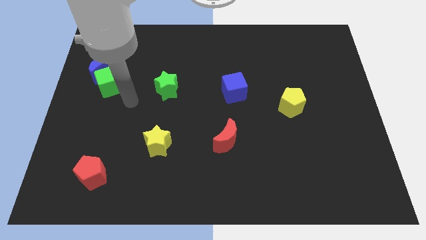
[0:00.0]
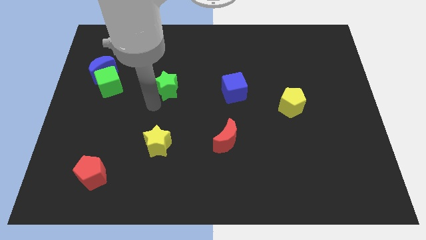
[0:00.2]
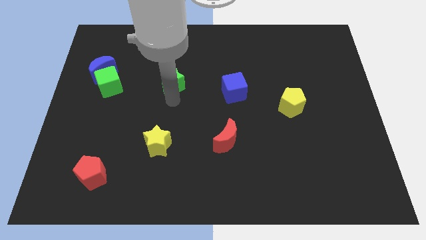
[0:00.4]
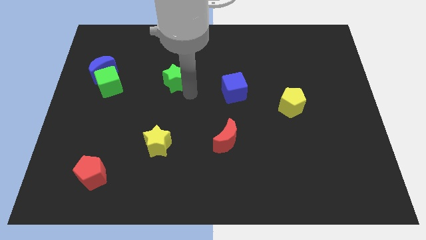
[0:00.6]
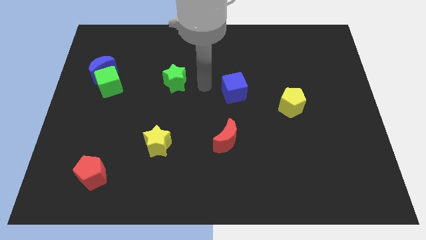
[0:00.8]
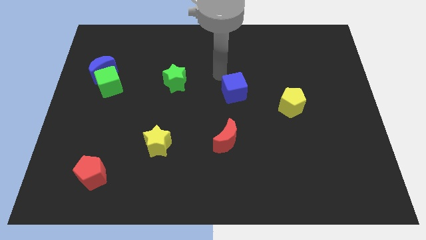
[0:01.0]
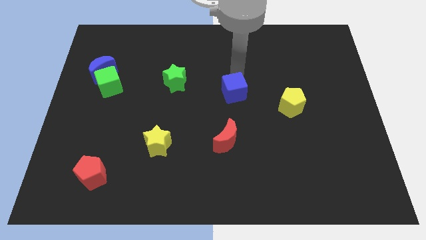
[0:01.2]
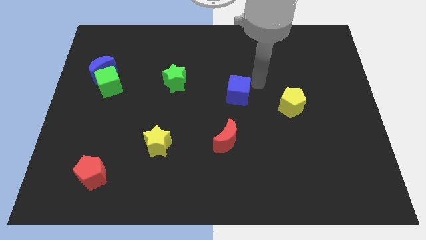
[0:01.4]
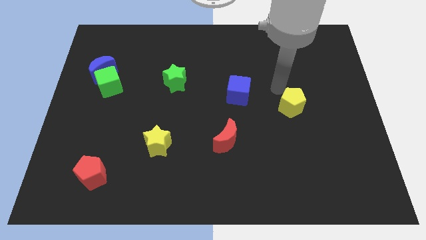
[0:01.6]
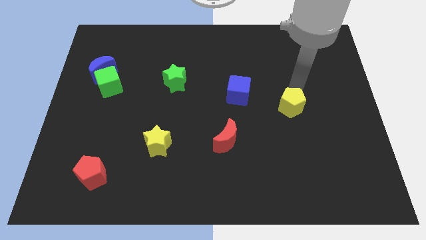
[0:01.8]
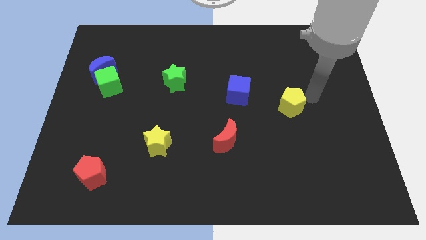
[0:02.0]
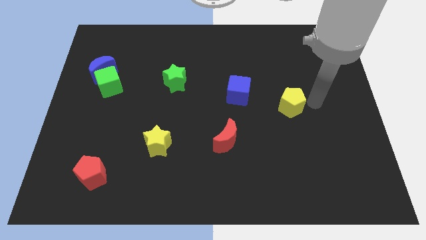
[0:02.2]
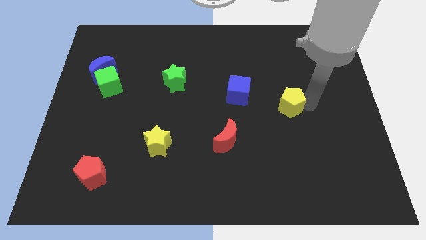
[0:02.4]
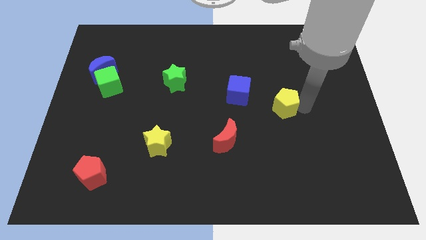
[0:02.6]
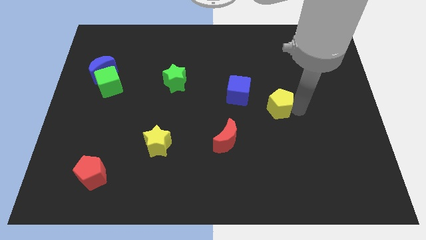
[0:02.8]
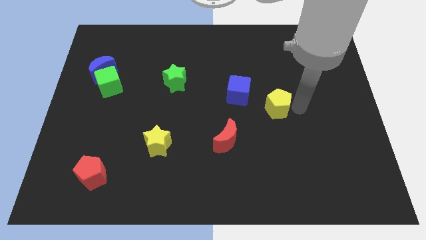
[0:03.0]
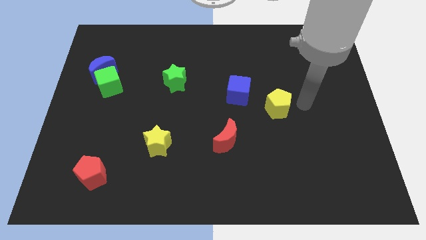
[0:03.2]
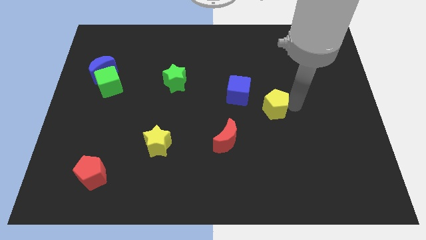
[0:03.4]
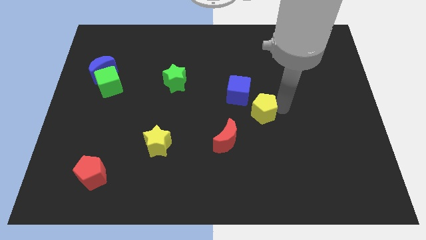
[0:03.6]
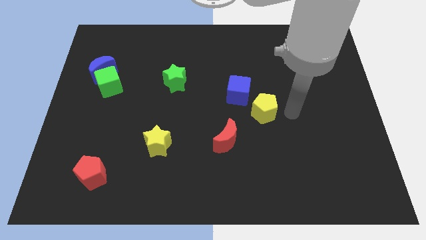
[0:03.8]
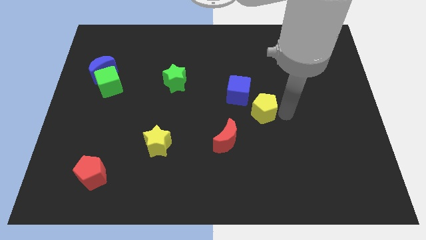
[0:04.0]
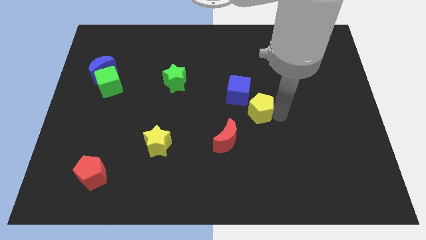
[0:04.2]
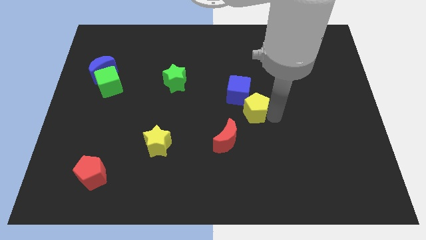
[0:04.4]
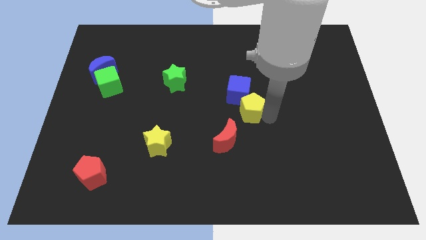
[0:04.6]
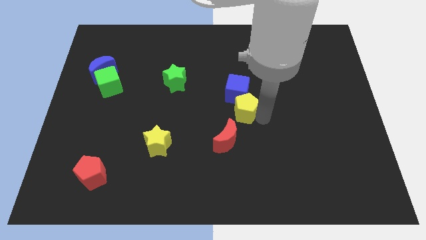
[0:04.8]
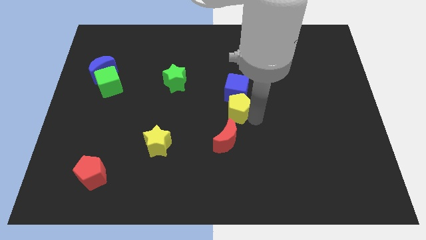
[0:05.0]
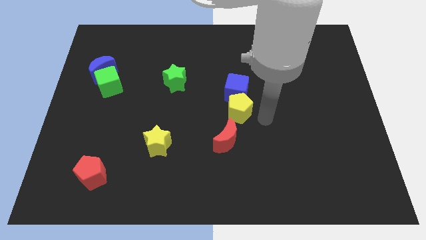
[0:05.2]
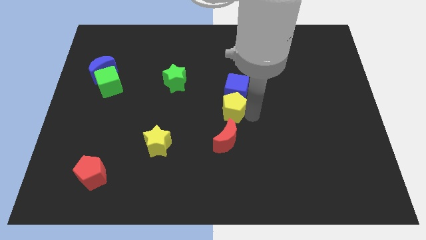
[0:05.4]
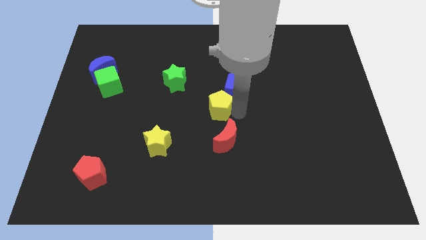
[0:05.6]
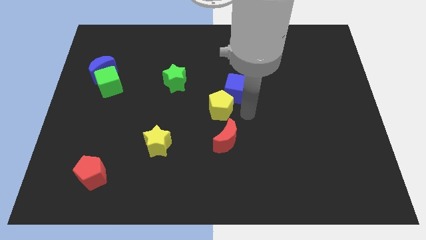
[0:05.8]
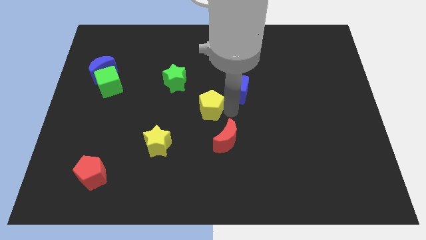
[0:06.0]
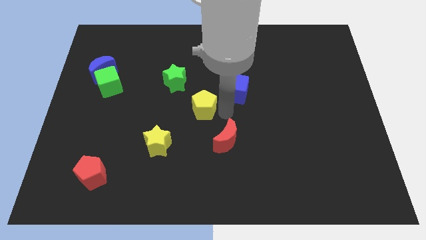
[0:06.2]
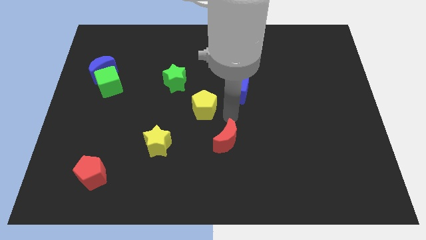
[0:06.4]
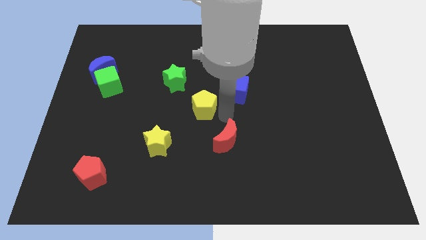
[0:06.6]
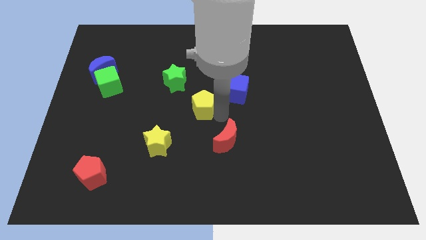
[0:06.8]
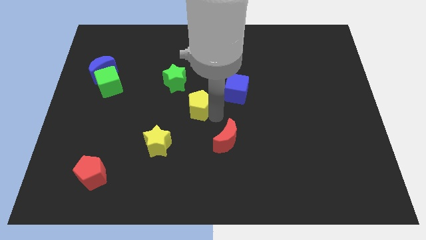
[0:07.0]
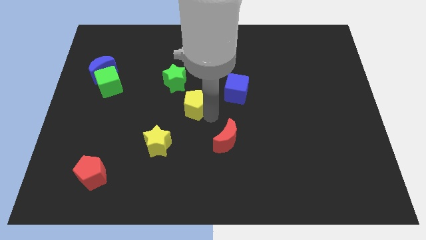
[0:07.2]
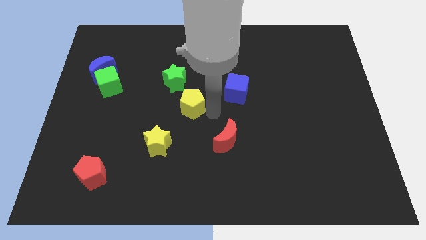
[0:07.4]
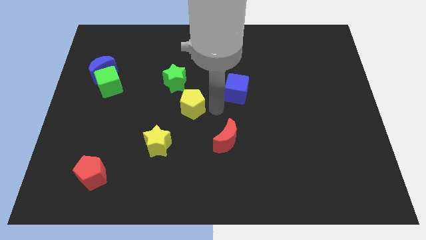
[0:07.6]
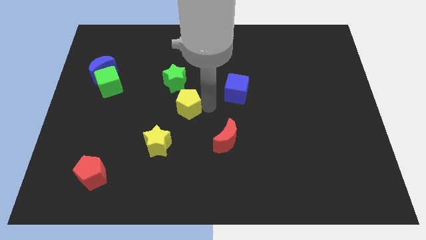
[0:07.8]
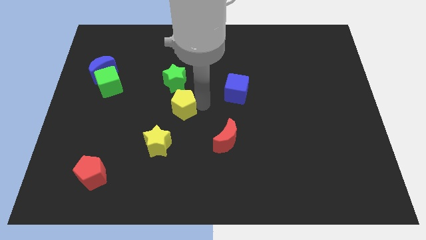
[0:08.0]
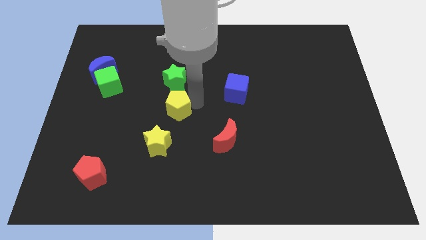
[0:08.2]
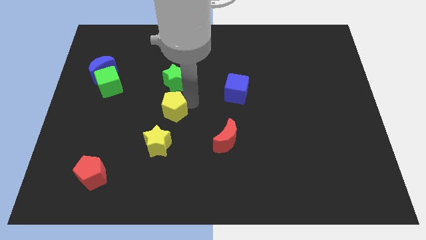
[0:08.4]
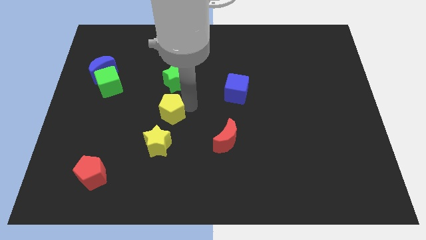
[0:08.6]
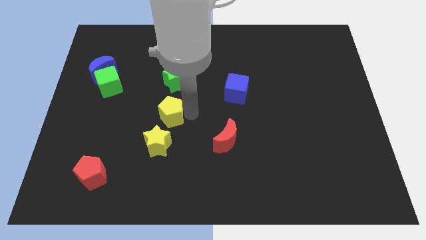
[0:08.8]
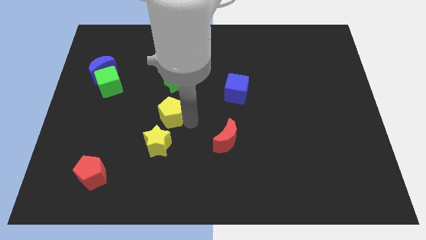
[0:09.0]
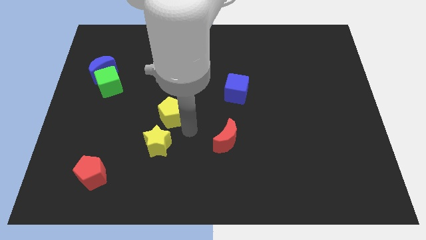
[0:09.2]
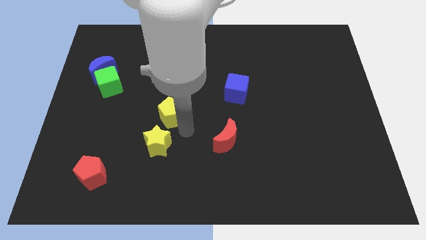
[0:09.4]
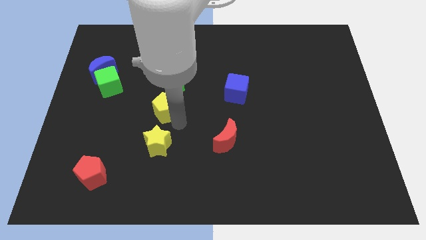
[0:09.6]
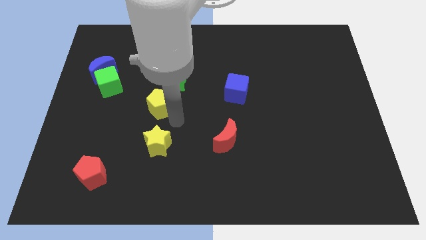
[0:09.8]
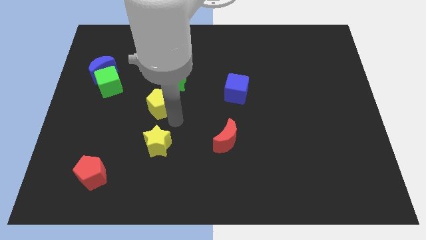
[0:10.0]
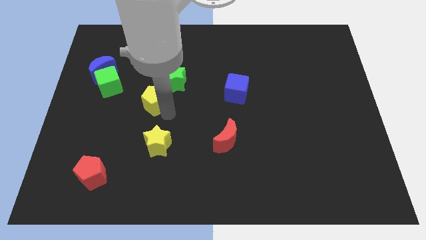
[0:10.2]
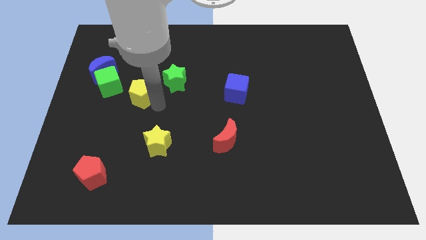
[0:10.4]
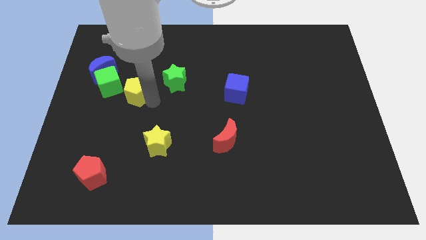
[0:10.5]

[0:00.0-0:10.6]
move the yellow pentagon to the bottom right of the blue moon

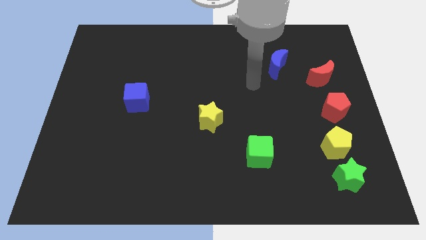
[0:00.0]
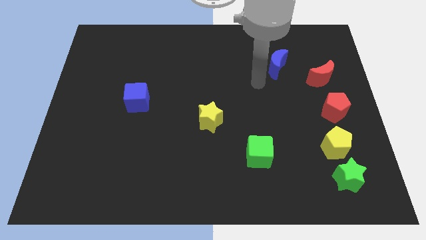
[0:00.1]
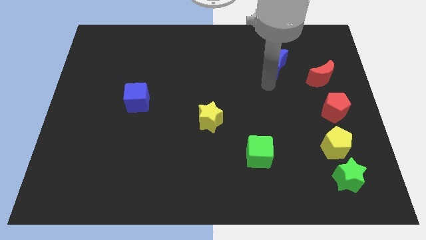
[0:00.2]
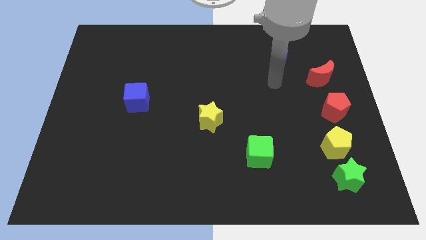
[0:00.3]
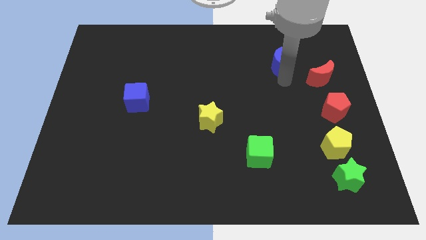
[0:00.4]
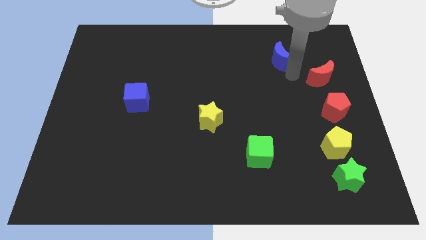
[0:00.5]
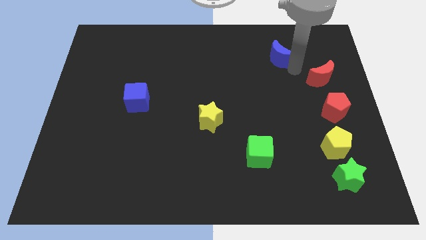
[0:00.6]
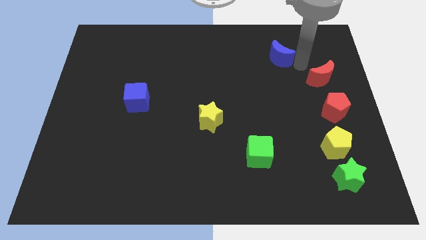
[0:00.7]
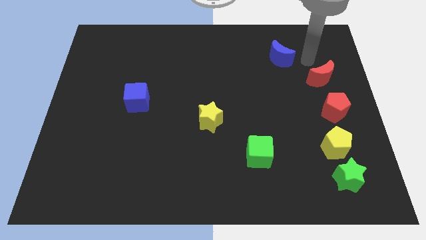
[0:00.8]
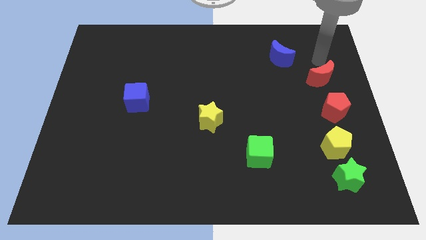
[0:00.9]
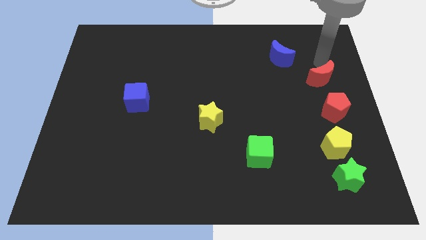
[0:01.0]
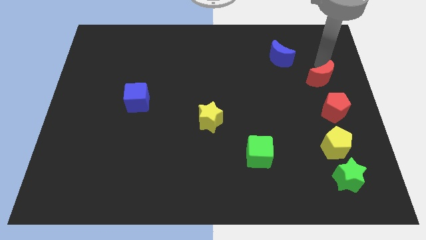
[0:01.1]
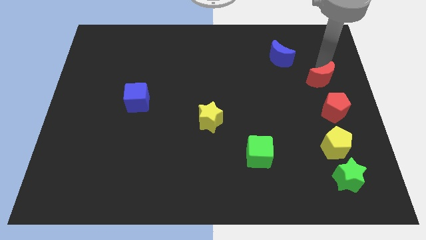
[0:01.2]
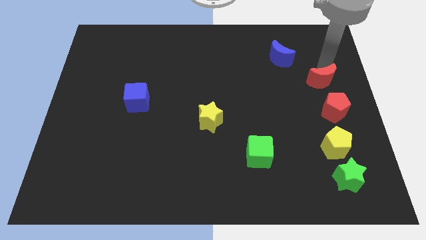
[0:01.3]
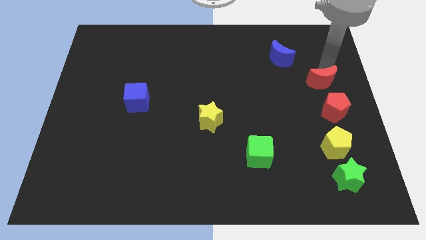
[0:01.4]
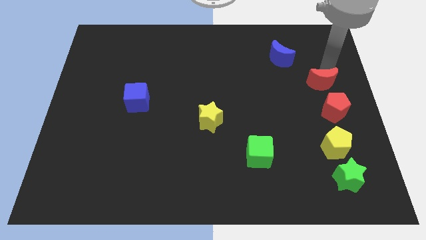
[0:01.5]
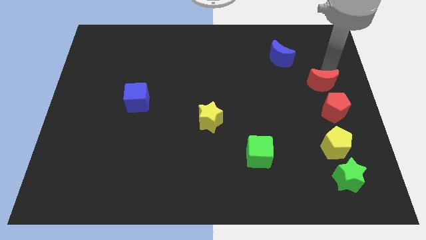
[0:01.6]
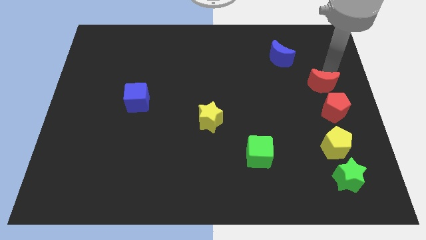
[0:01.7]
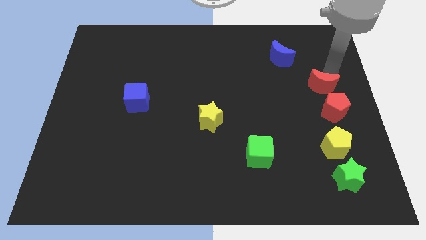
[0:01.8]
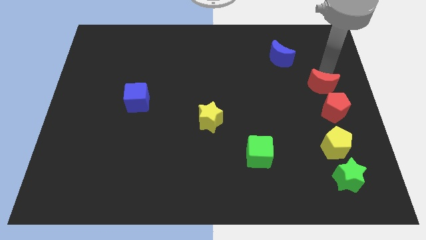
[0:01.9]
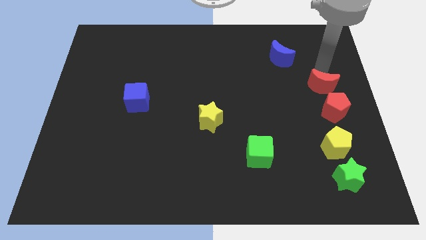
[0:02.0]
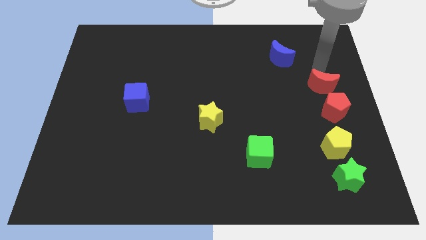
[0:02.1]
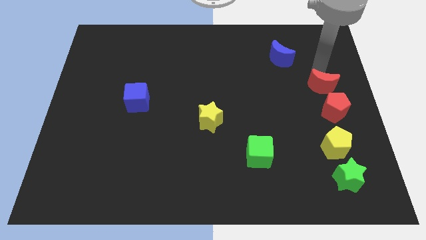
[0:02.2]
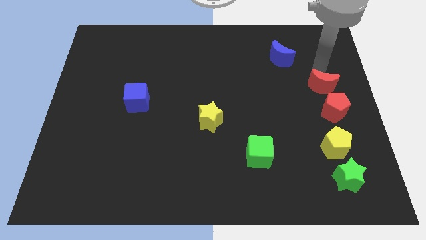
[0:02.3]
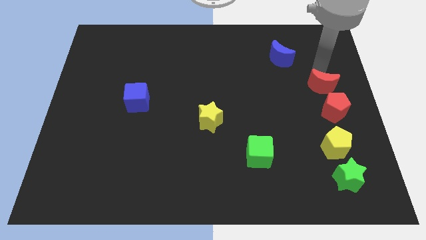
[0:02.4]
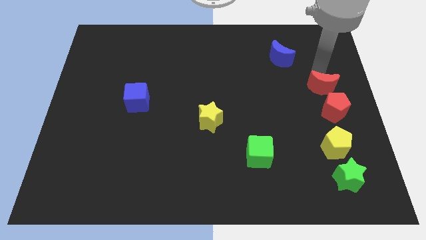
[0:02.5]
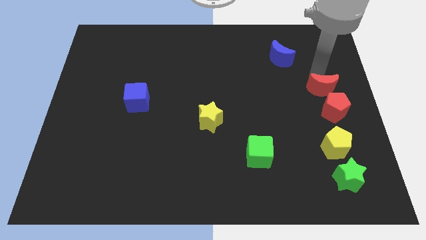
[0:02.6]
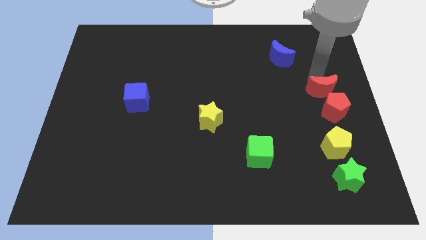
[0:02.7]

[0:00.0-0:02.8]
push the red moon to the top of the yellow pentagon
